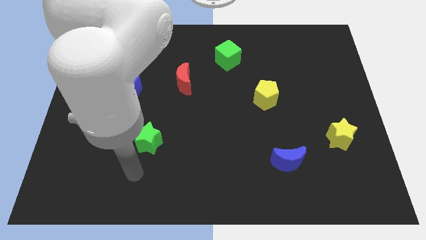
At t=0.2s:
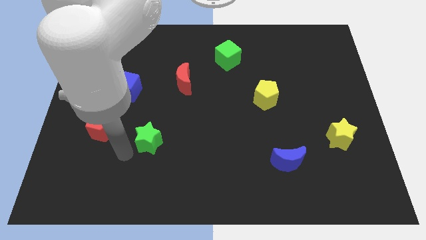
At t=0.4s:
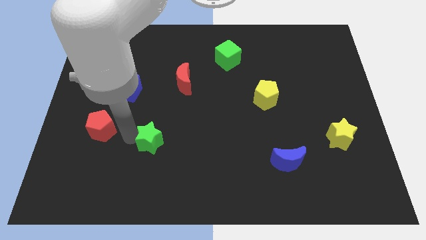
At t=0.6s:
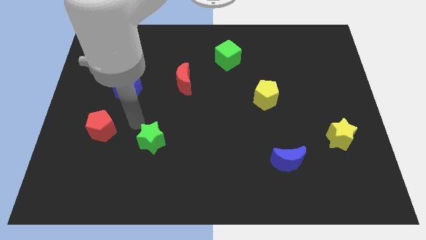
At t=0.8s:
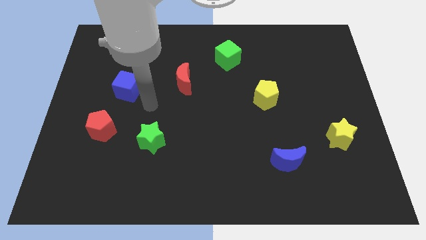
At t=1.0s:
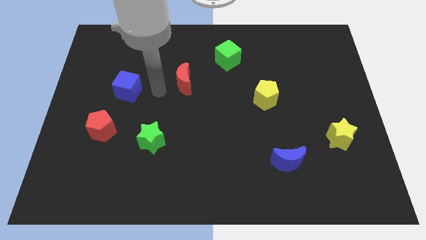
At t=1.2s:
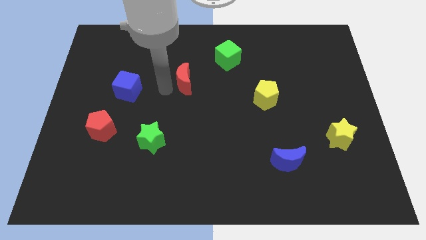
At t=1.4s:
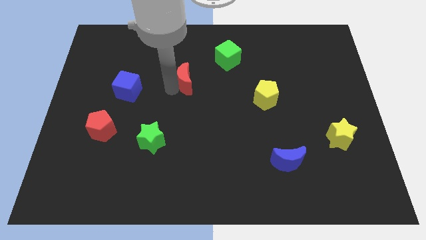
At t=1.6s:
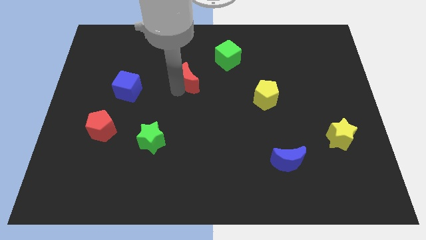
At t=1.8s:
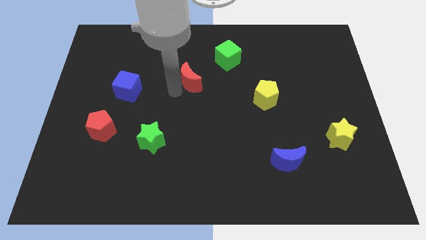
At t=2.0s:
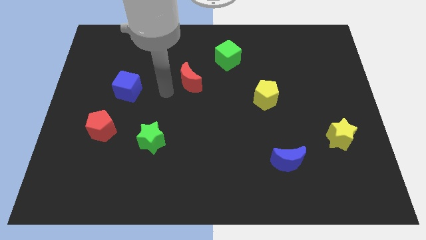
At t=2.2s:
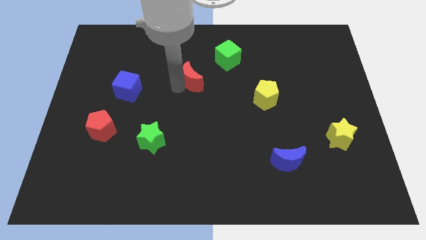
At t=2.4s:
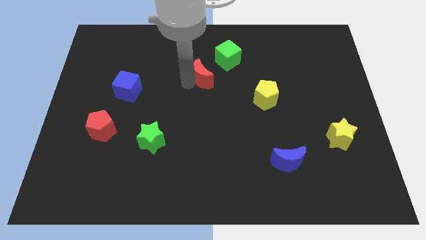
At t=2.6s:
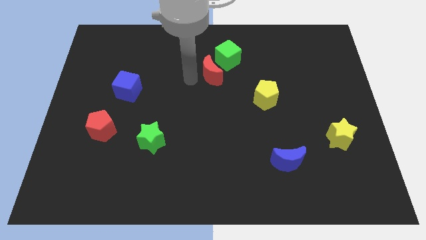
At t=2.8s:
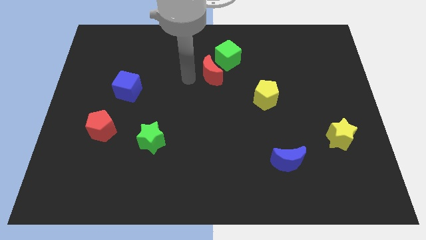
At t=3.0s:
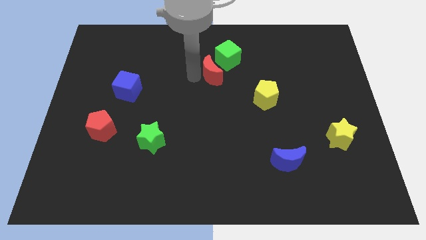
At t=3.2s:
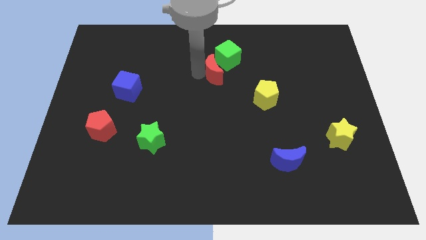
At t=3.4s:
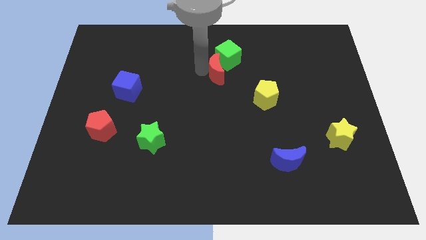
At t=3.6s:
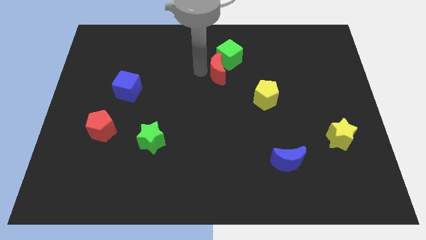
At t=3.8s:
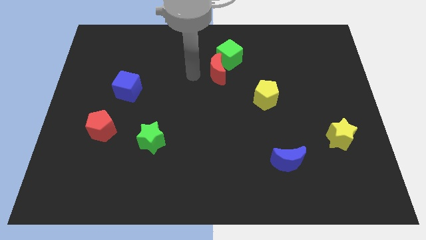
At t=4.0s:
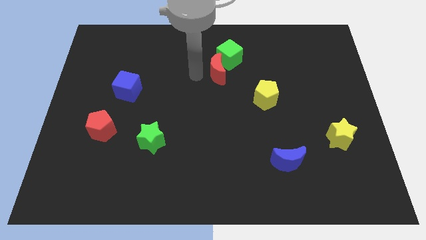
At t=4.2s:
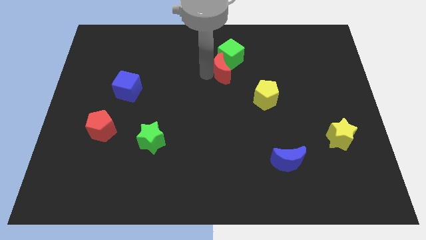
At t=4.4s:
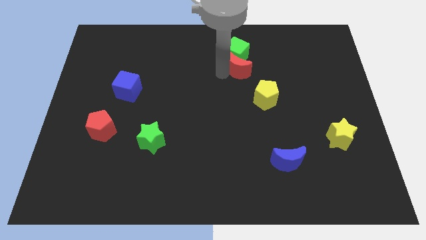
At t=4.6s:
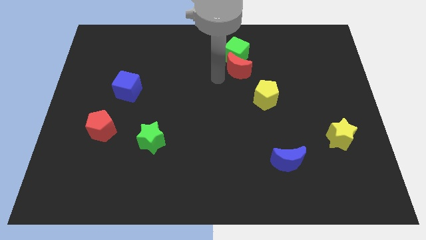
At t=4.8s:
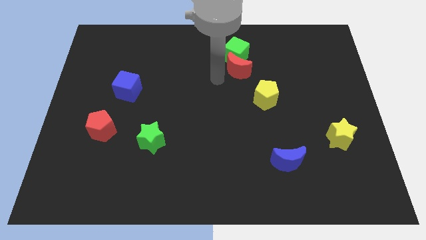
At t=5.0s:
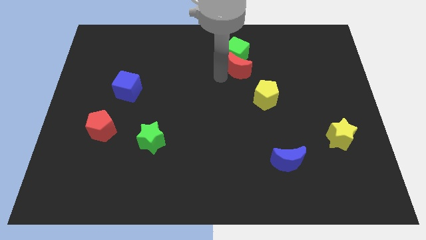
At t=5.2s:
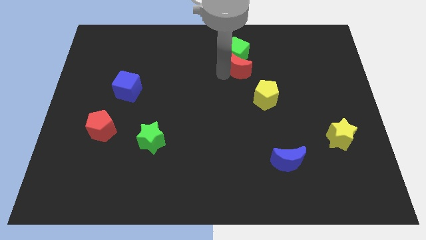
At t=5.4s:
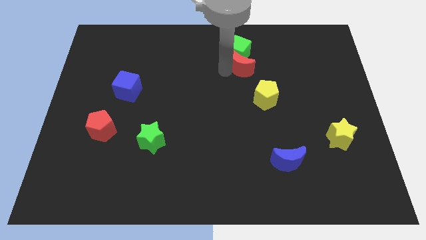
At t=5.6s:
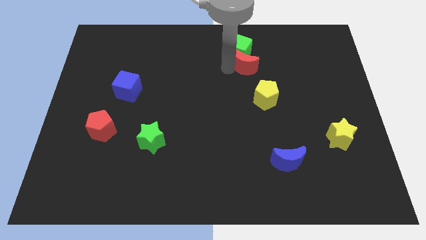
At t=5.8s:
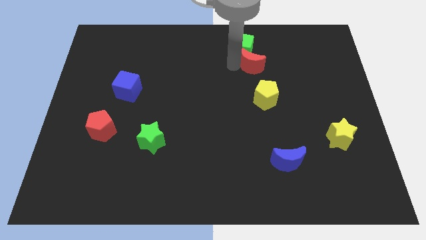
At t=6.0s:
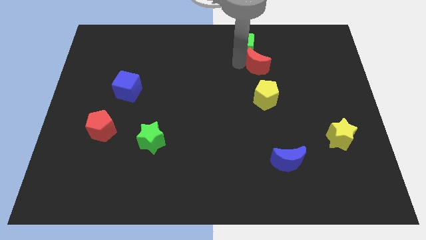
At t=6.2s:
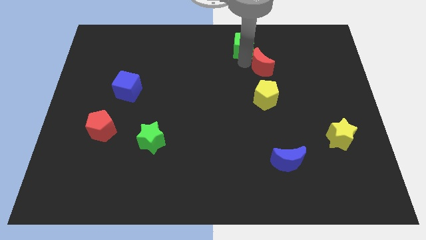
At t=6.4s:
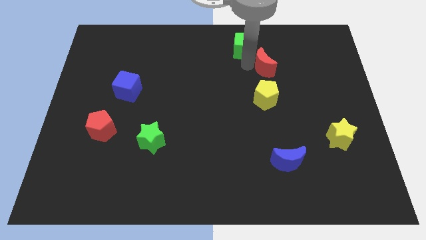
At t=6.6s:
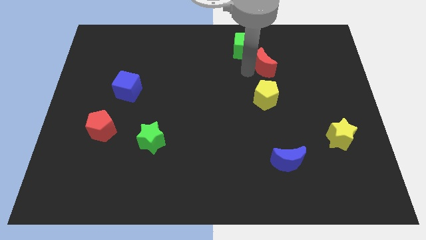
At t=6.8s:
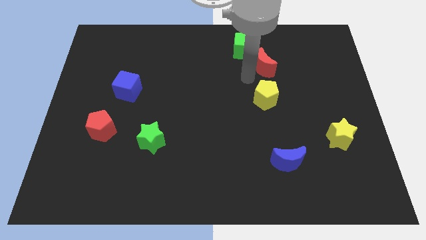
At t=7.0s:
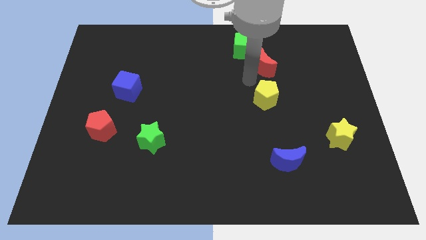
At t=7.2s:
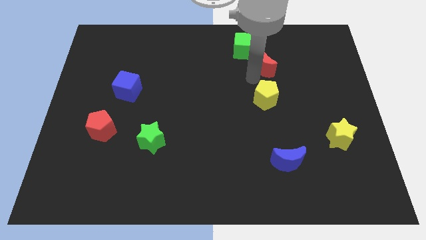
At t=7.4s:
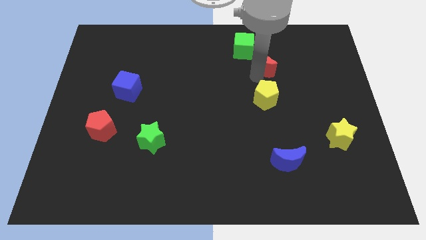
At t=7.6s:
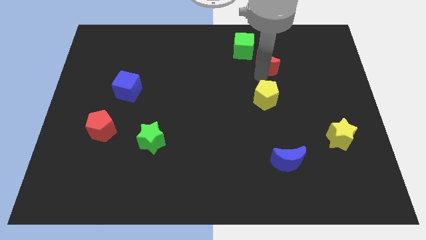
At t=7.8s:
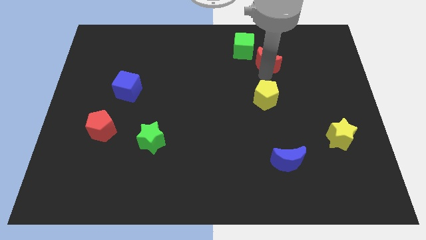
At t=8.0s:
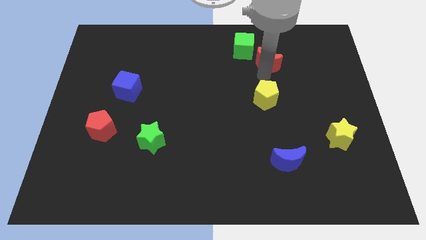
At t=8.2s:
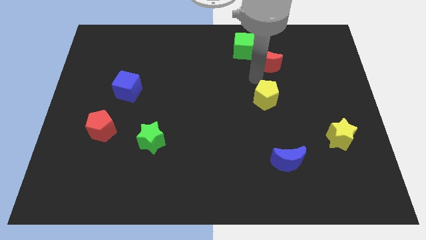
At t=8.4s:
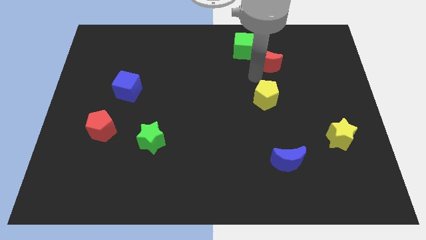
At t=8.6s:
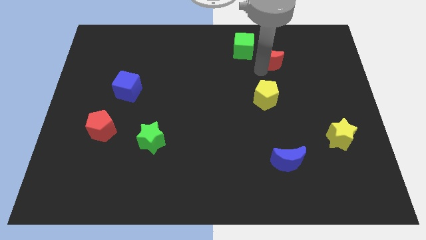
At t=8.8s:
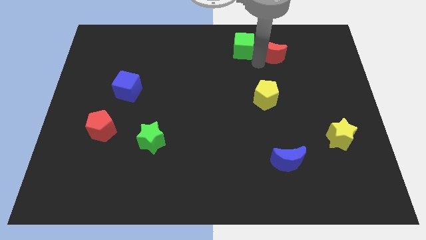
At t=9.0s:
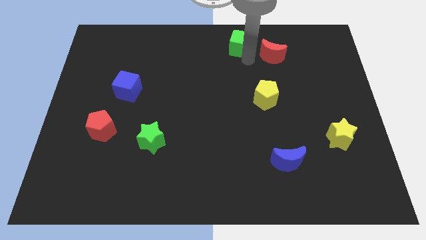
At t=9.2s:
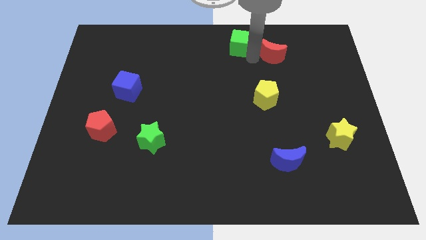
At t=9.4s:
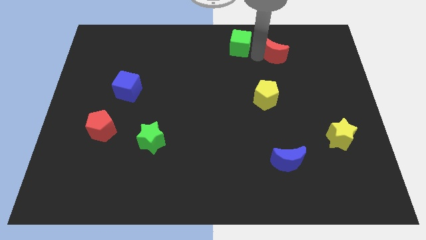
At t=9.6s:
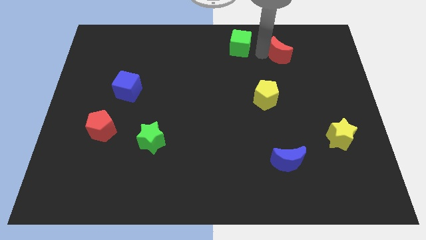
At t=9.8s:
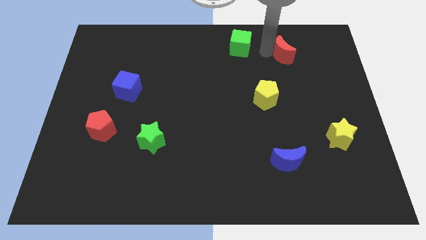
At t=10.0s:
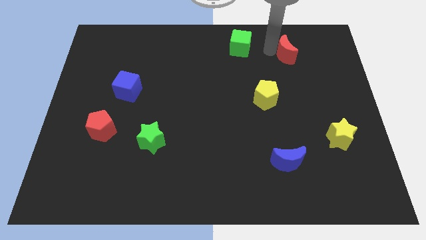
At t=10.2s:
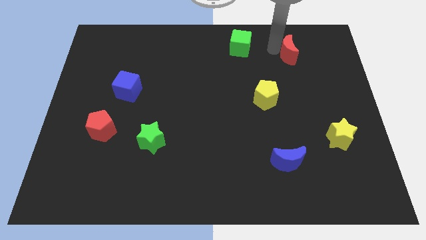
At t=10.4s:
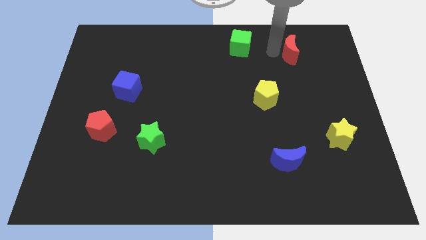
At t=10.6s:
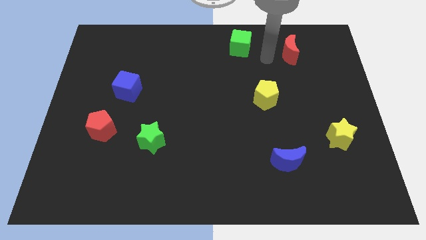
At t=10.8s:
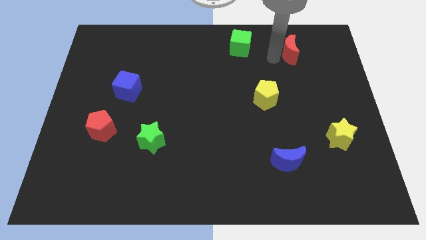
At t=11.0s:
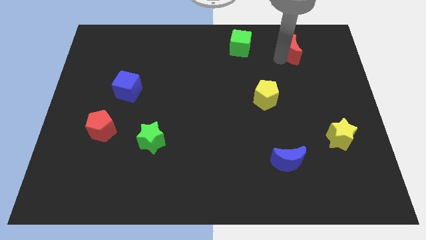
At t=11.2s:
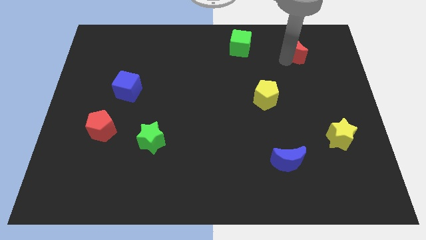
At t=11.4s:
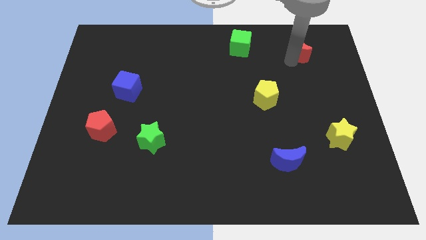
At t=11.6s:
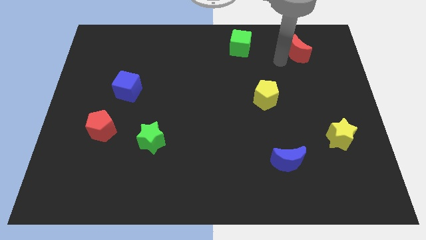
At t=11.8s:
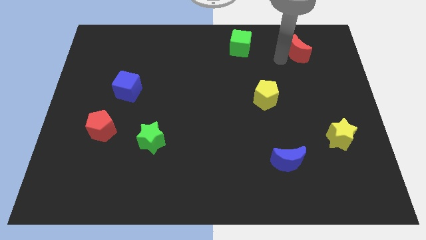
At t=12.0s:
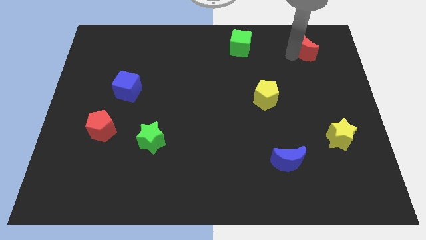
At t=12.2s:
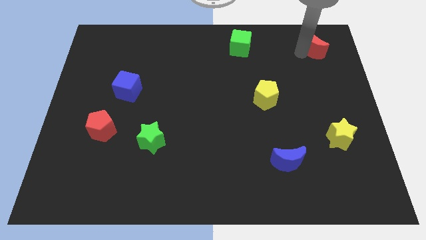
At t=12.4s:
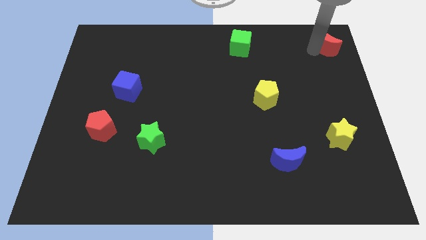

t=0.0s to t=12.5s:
push the red moon to the top right corner

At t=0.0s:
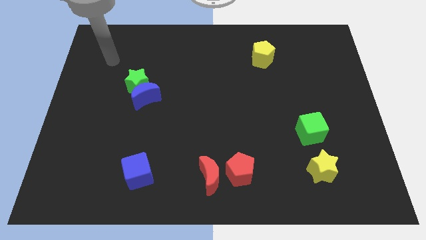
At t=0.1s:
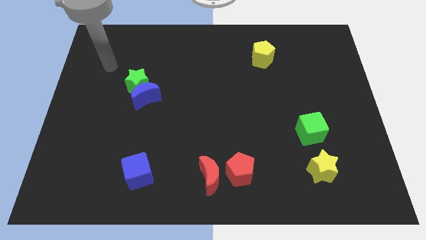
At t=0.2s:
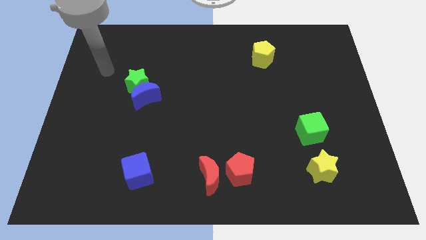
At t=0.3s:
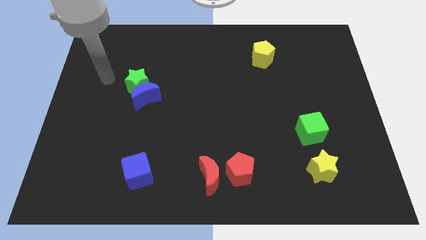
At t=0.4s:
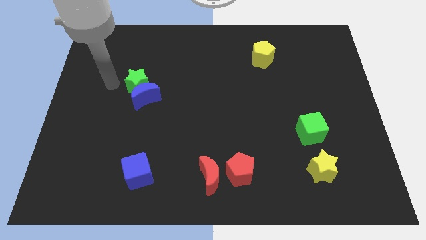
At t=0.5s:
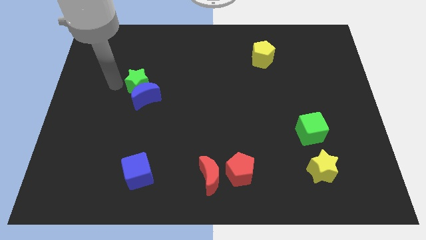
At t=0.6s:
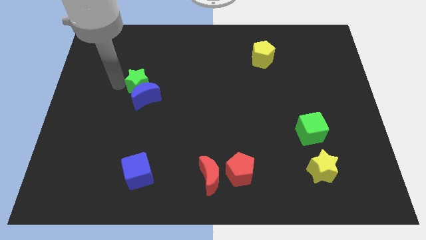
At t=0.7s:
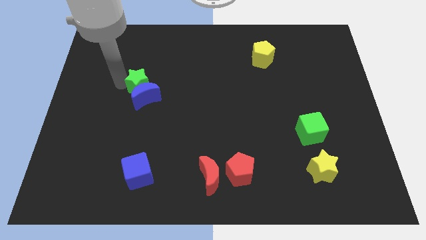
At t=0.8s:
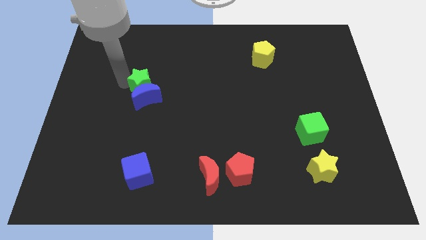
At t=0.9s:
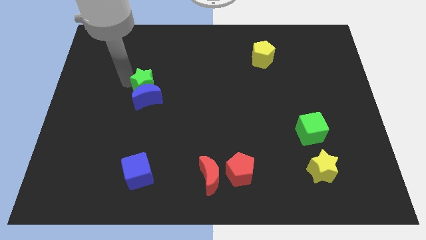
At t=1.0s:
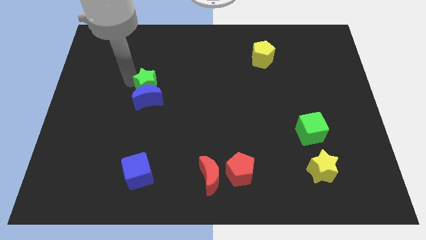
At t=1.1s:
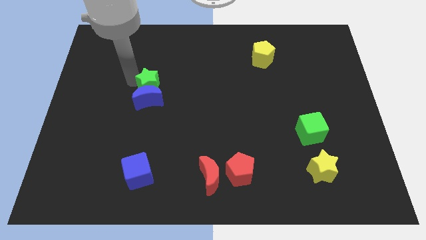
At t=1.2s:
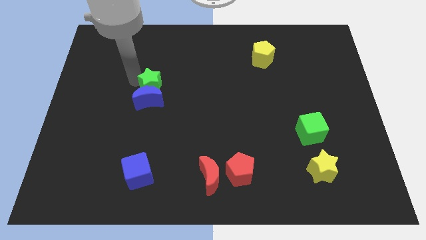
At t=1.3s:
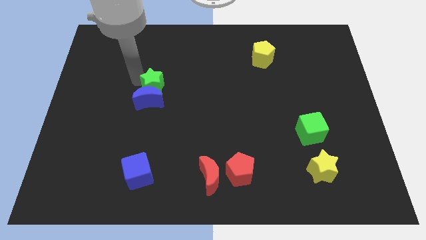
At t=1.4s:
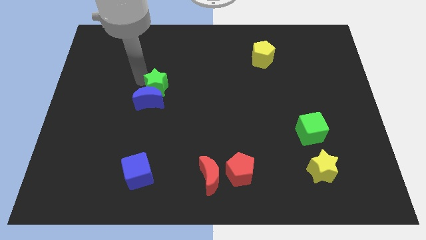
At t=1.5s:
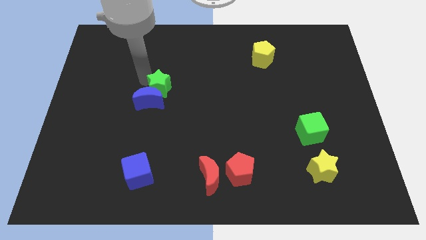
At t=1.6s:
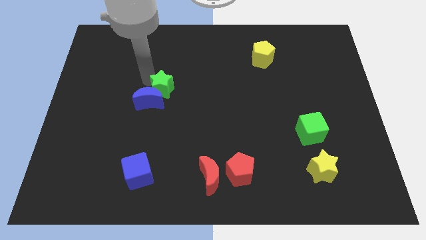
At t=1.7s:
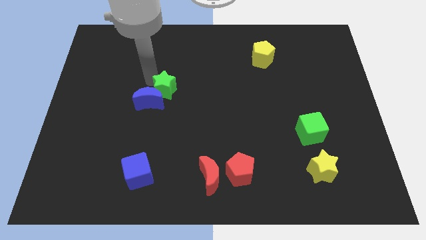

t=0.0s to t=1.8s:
push the green star to the middle of the board

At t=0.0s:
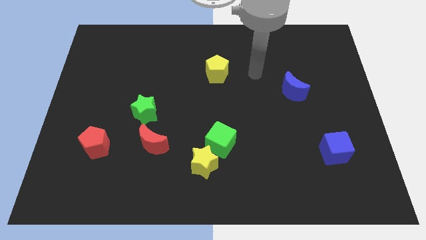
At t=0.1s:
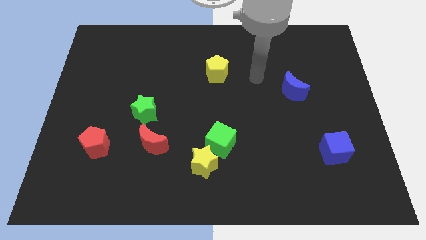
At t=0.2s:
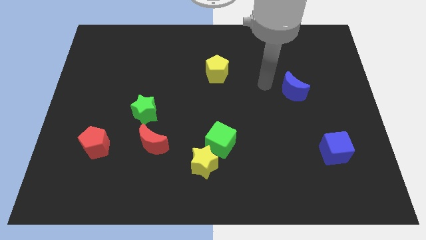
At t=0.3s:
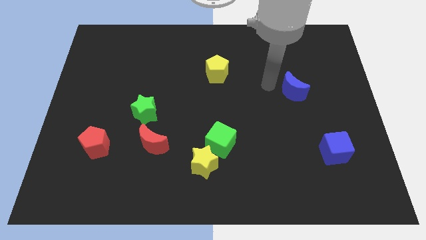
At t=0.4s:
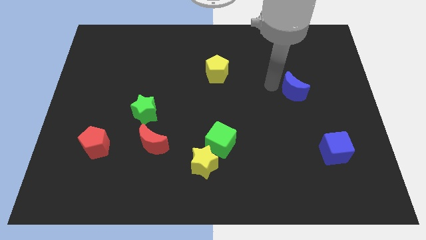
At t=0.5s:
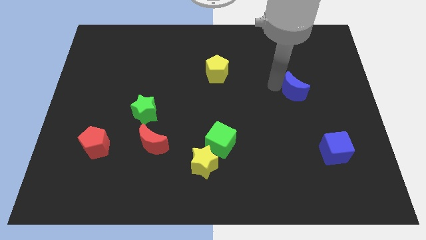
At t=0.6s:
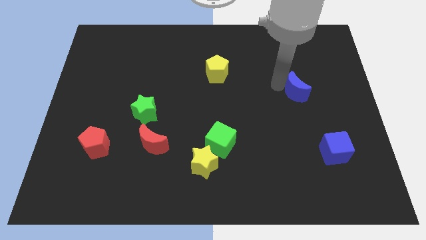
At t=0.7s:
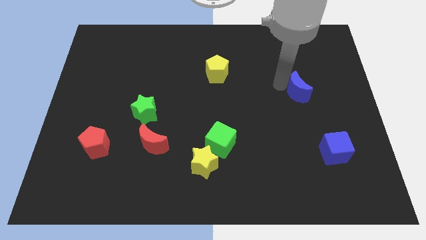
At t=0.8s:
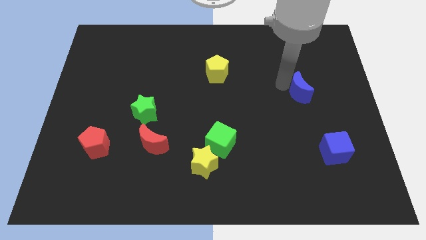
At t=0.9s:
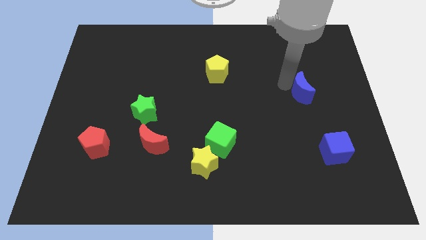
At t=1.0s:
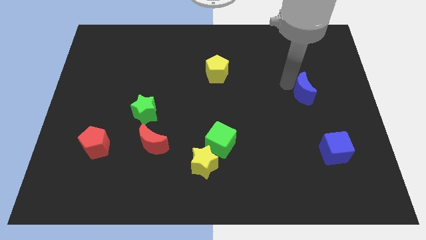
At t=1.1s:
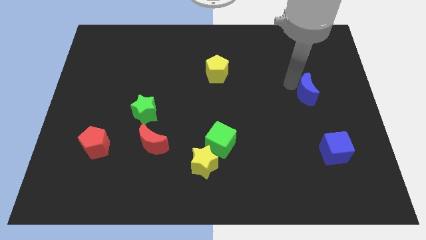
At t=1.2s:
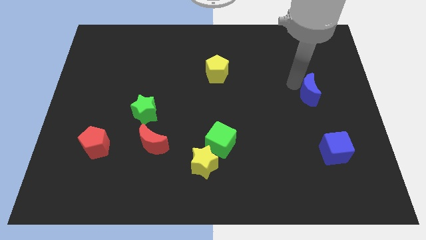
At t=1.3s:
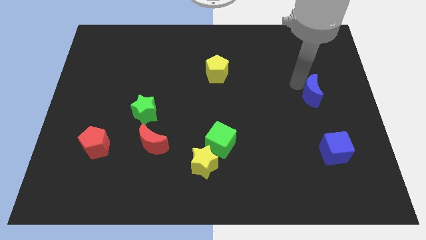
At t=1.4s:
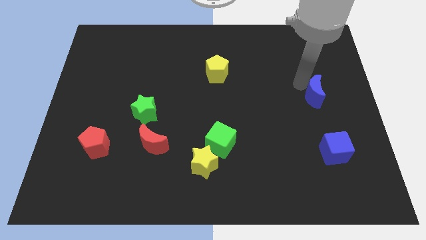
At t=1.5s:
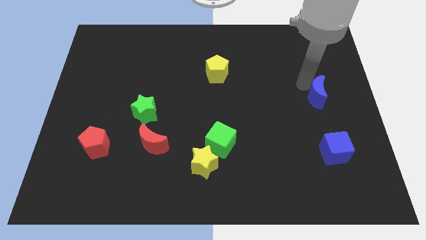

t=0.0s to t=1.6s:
push the blue moon to the center right
